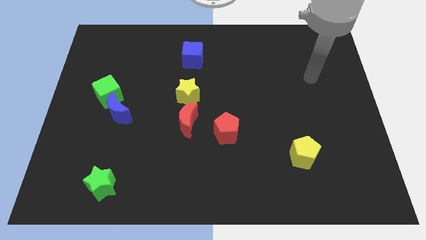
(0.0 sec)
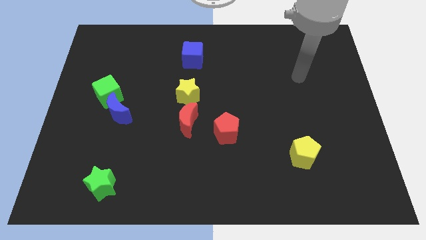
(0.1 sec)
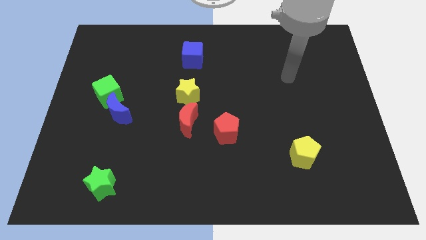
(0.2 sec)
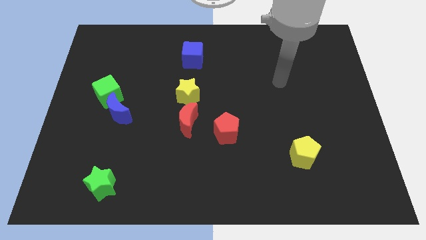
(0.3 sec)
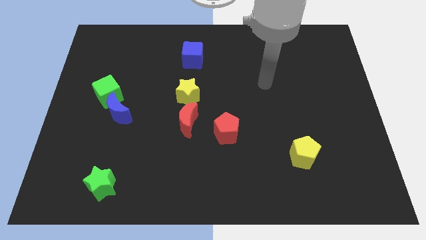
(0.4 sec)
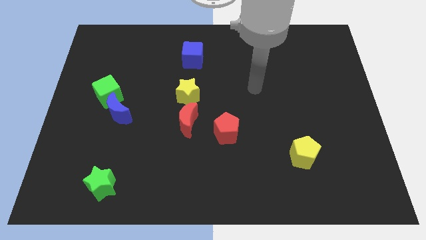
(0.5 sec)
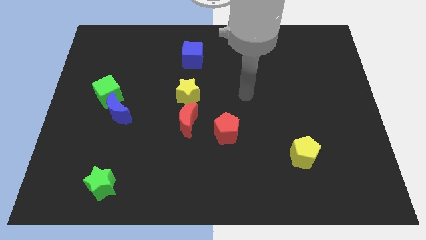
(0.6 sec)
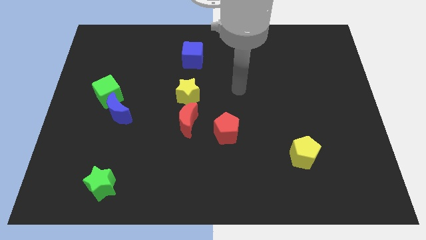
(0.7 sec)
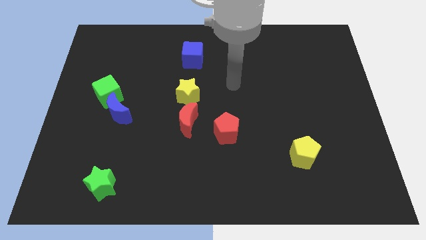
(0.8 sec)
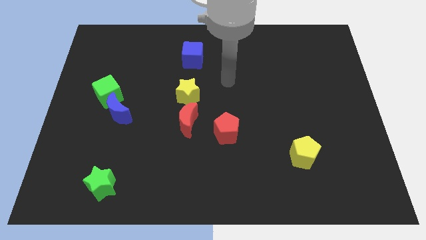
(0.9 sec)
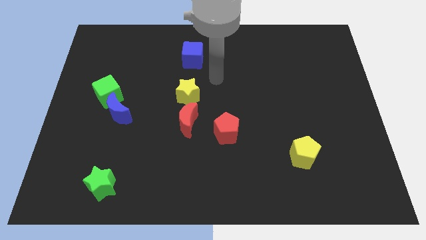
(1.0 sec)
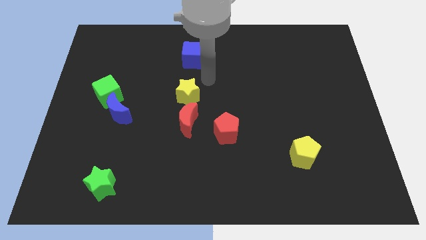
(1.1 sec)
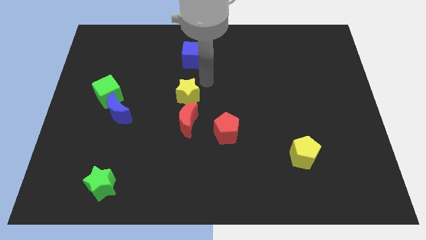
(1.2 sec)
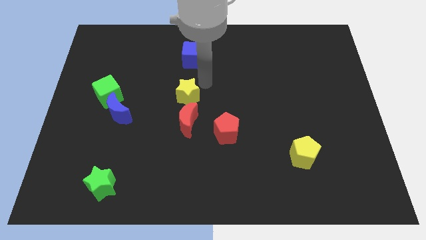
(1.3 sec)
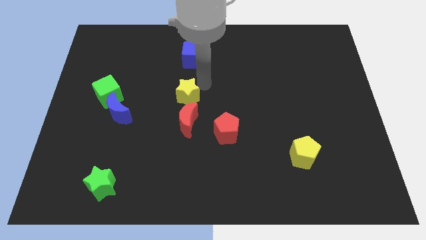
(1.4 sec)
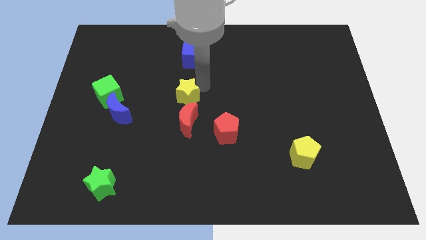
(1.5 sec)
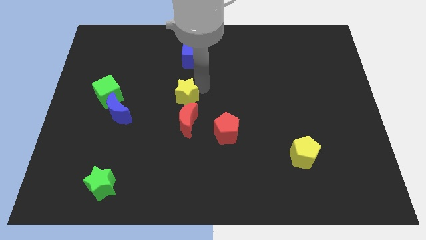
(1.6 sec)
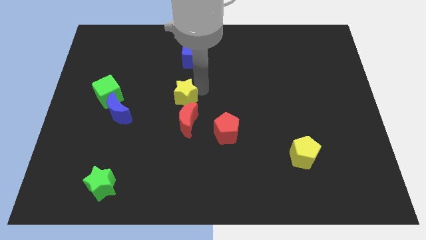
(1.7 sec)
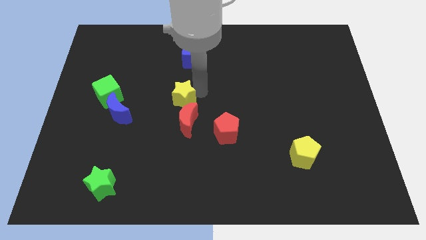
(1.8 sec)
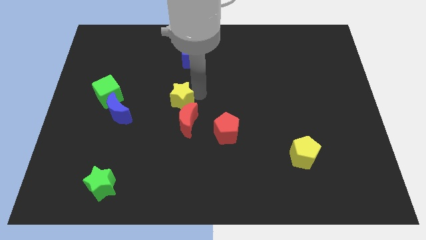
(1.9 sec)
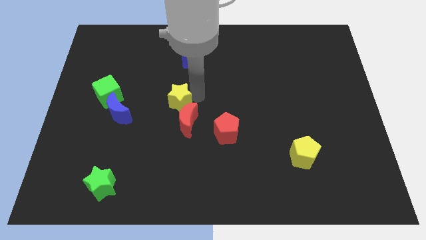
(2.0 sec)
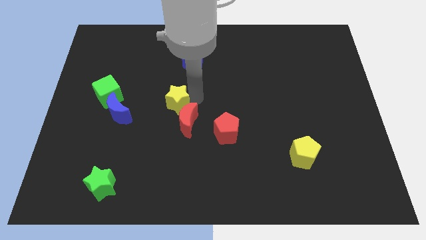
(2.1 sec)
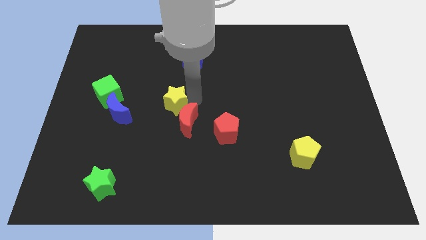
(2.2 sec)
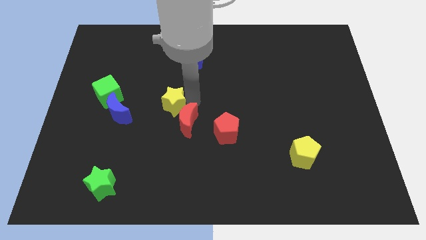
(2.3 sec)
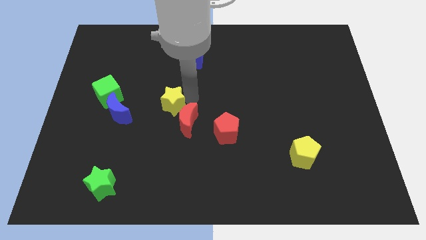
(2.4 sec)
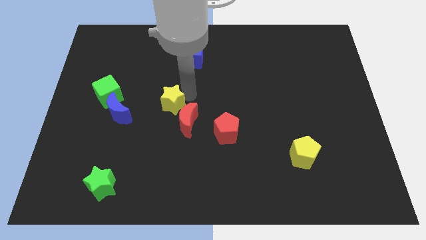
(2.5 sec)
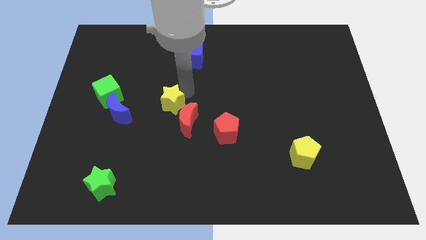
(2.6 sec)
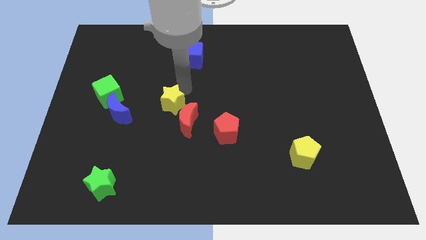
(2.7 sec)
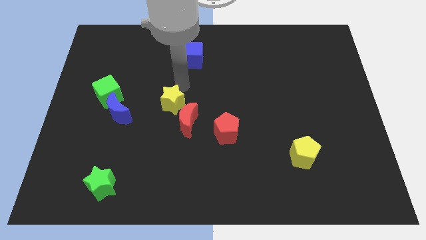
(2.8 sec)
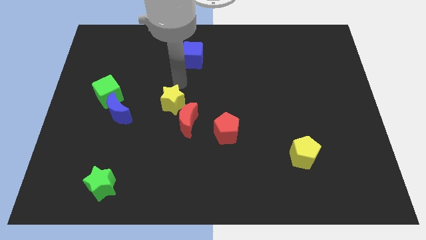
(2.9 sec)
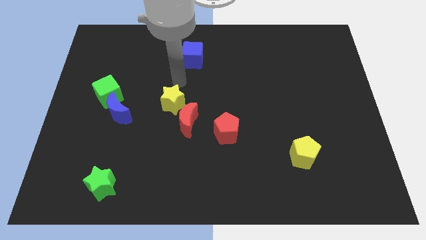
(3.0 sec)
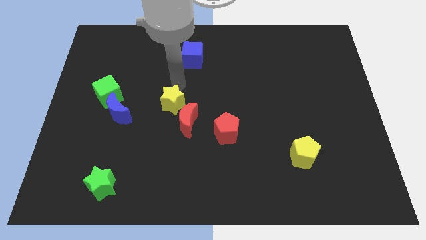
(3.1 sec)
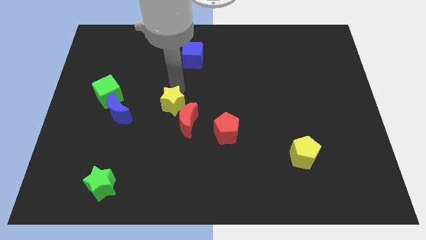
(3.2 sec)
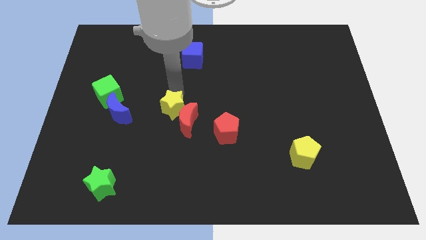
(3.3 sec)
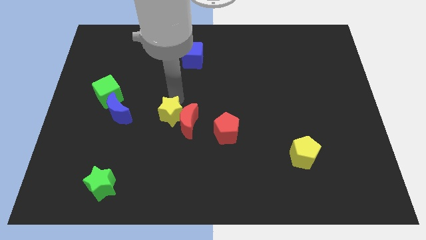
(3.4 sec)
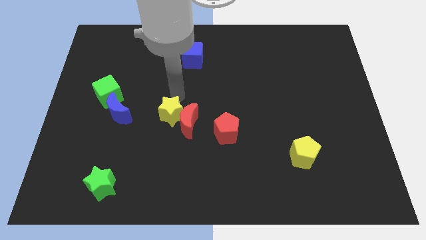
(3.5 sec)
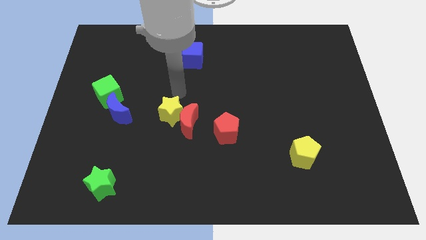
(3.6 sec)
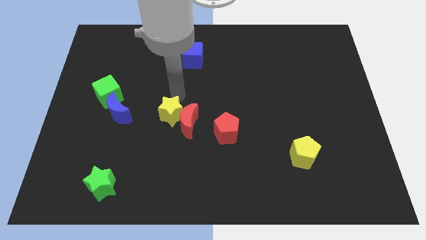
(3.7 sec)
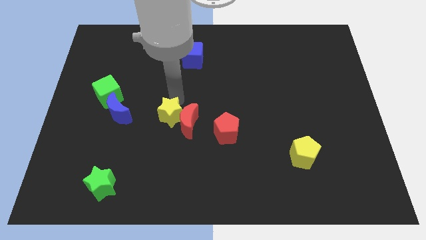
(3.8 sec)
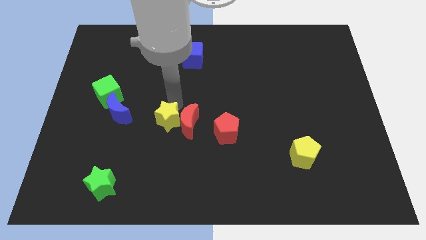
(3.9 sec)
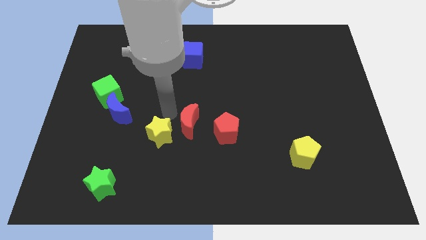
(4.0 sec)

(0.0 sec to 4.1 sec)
move the yellow star downwards a bit

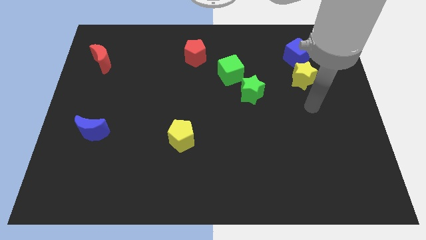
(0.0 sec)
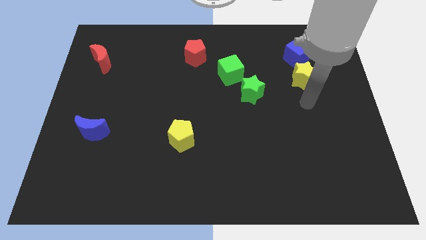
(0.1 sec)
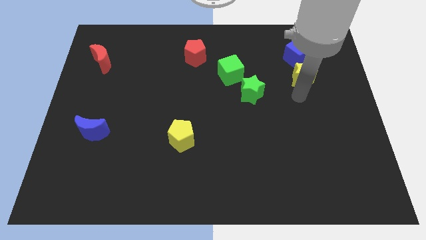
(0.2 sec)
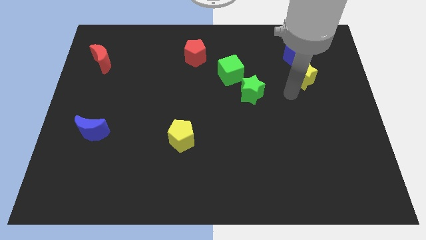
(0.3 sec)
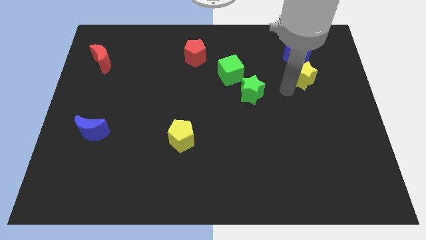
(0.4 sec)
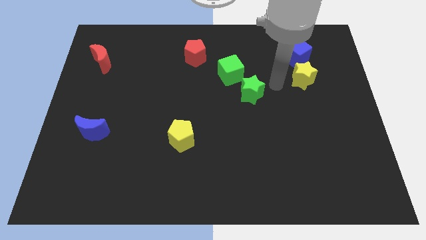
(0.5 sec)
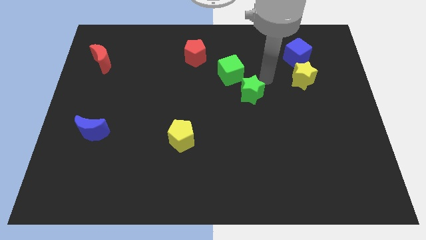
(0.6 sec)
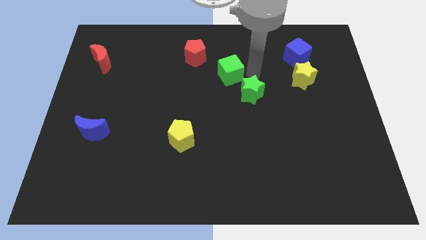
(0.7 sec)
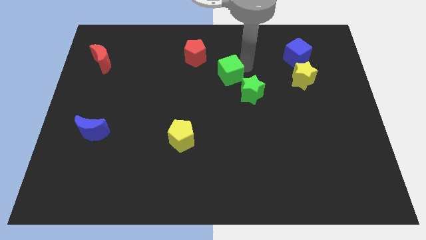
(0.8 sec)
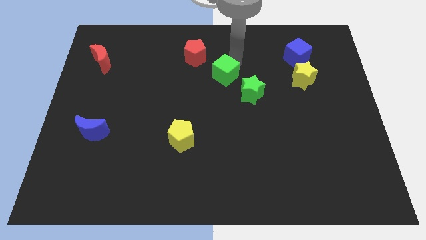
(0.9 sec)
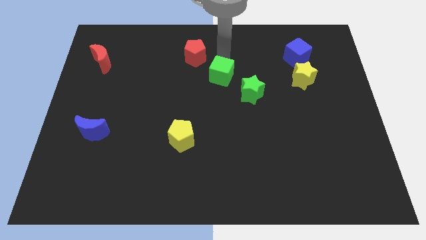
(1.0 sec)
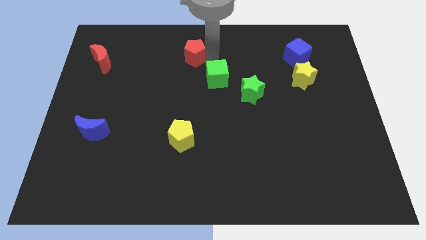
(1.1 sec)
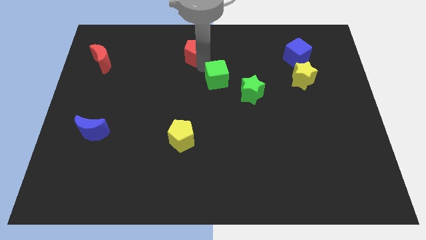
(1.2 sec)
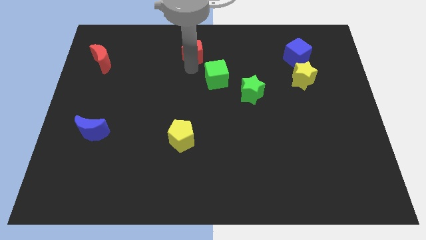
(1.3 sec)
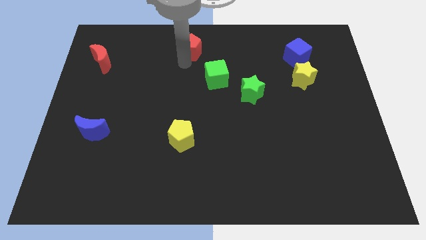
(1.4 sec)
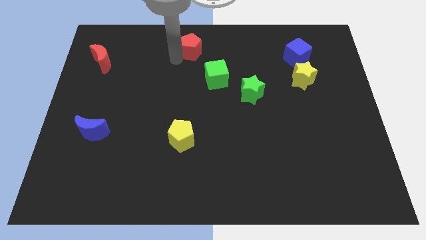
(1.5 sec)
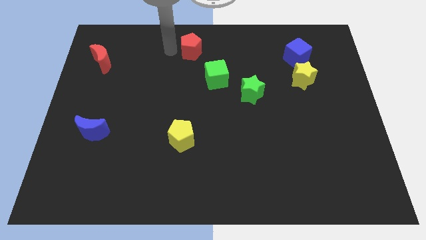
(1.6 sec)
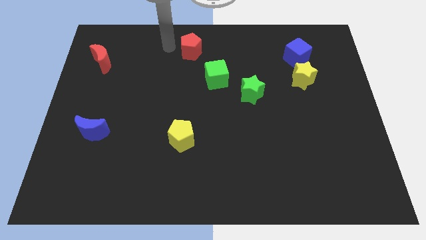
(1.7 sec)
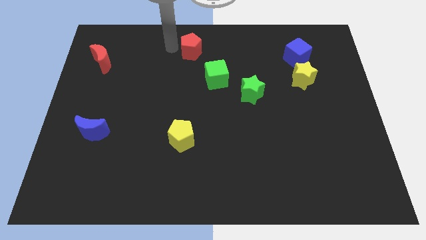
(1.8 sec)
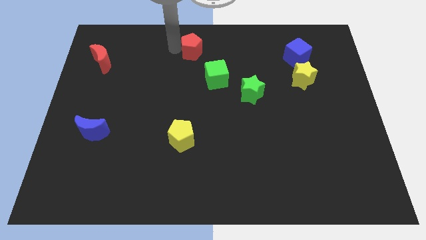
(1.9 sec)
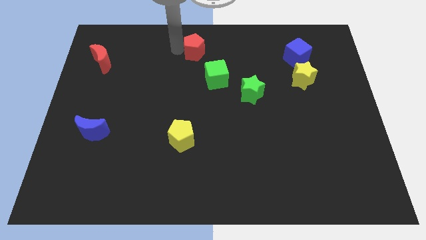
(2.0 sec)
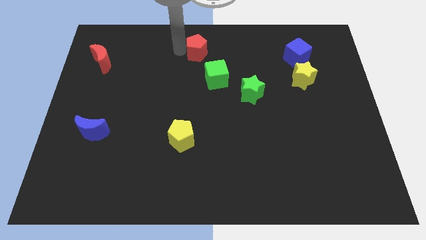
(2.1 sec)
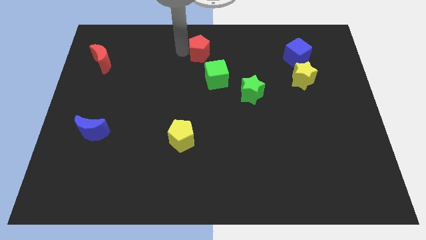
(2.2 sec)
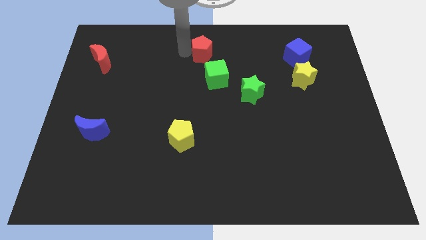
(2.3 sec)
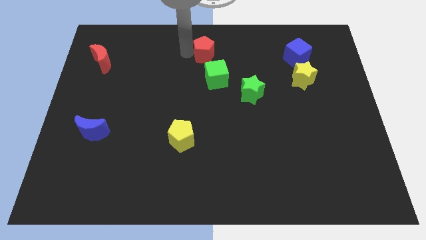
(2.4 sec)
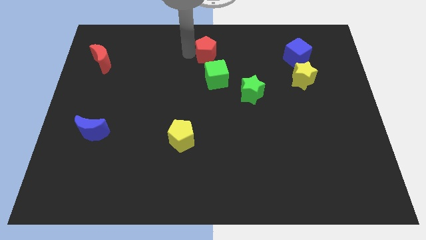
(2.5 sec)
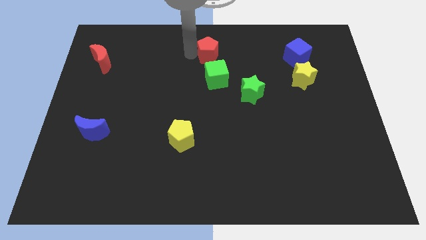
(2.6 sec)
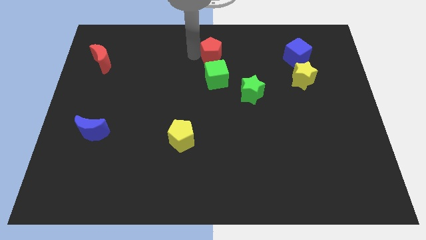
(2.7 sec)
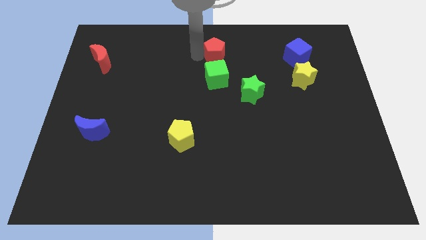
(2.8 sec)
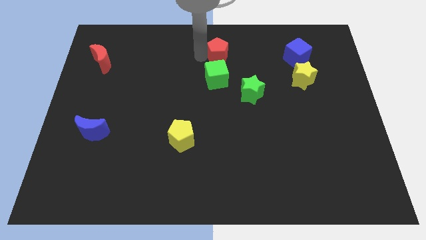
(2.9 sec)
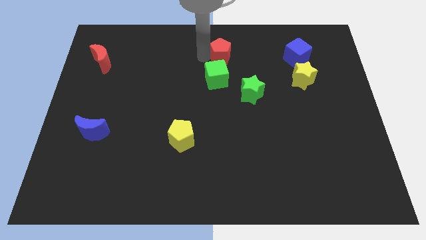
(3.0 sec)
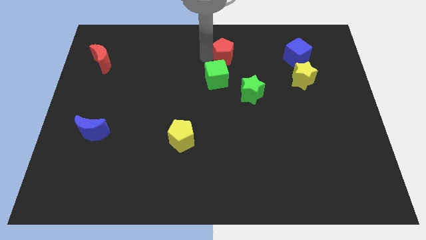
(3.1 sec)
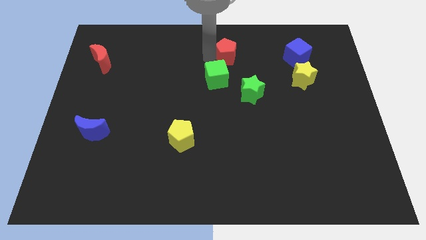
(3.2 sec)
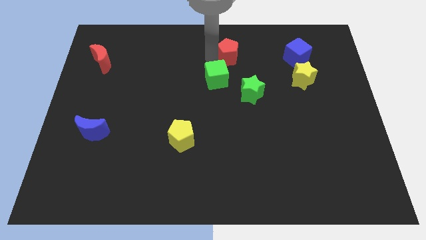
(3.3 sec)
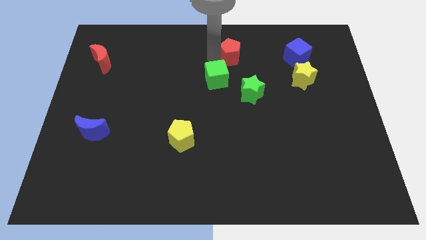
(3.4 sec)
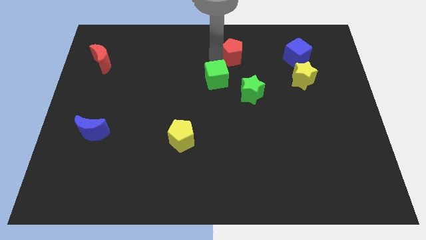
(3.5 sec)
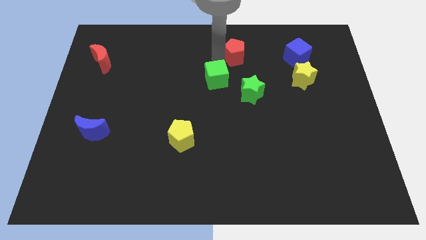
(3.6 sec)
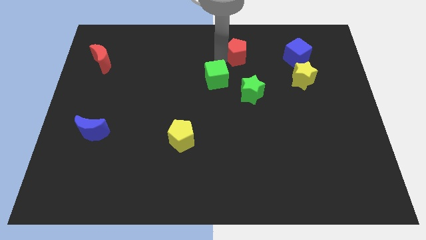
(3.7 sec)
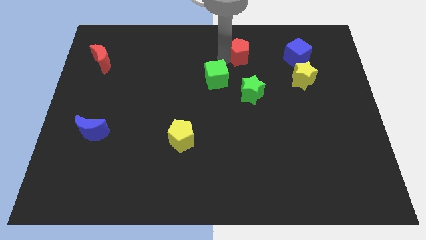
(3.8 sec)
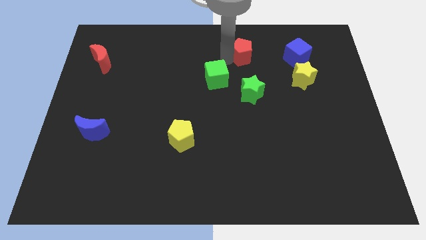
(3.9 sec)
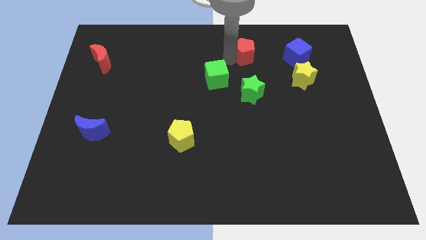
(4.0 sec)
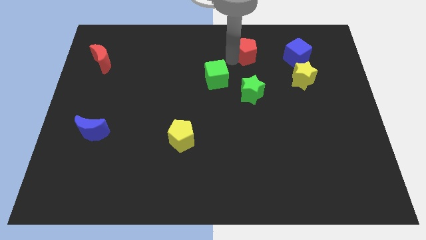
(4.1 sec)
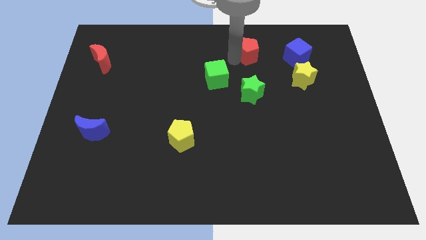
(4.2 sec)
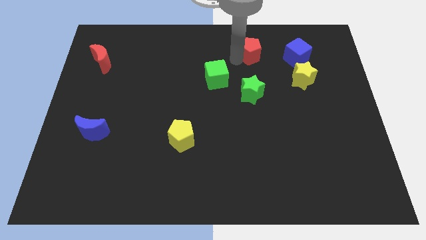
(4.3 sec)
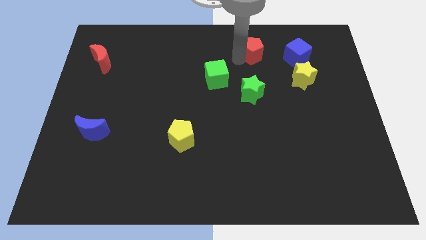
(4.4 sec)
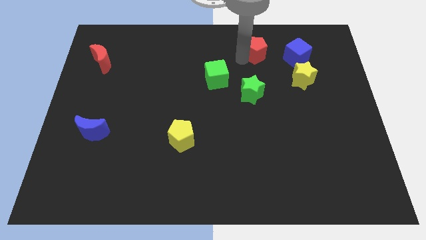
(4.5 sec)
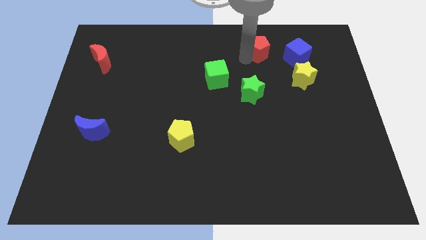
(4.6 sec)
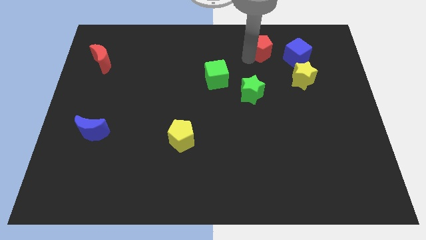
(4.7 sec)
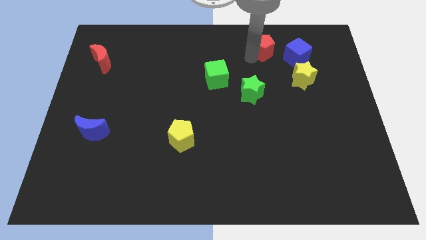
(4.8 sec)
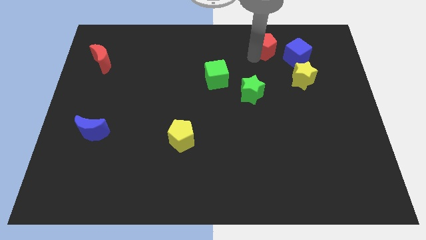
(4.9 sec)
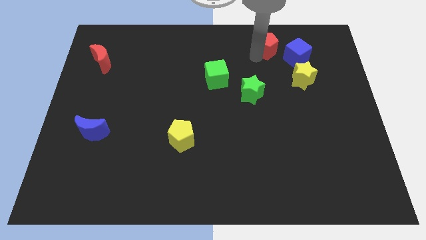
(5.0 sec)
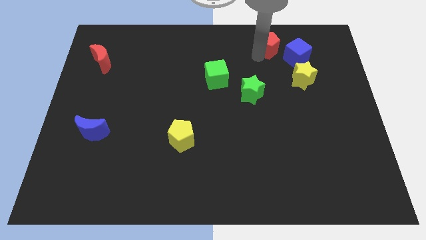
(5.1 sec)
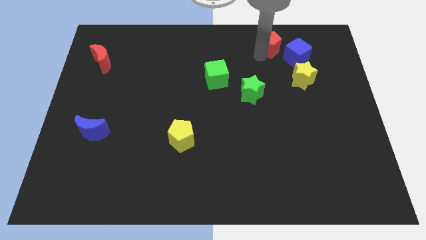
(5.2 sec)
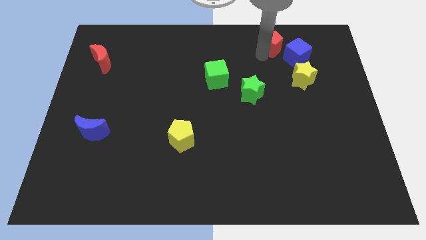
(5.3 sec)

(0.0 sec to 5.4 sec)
push the red pentagon to the right
